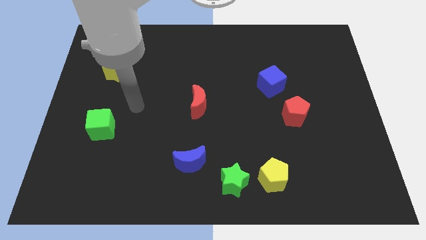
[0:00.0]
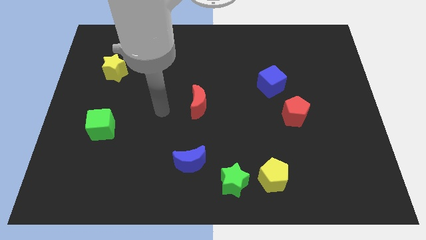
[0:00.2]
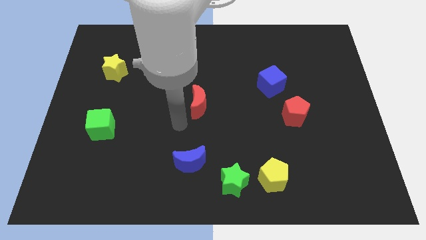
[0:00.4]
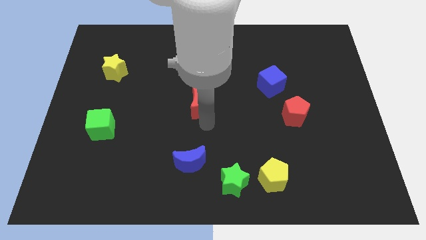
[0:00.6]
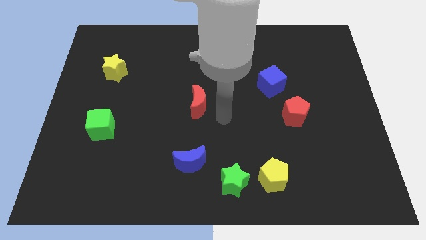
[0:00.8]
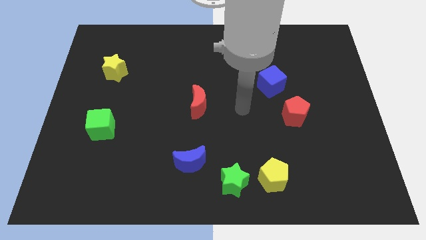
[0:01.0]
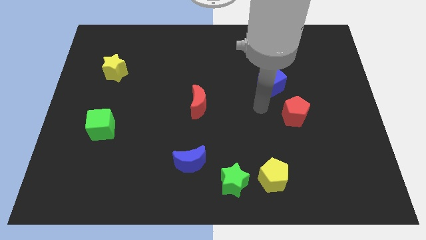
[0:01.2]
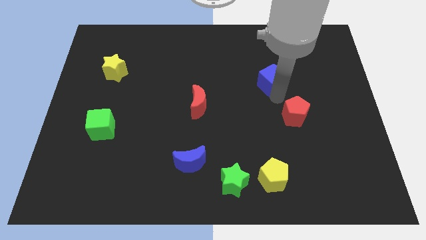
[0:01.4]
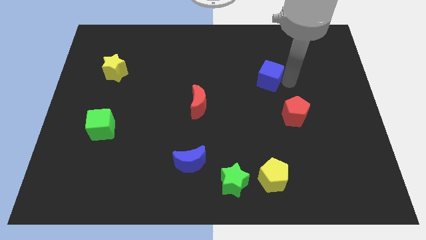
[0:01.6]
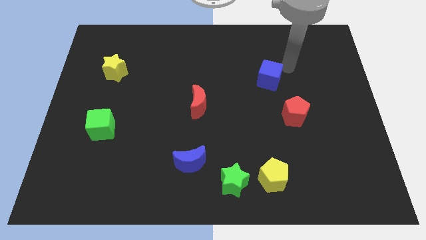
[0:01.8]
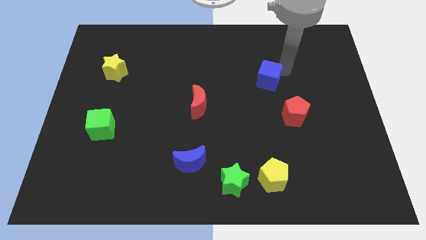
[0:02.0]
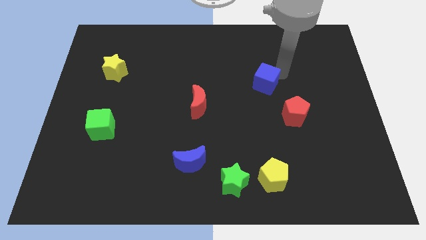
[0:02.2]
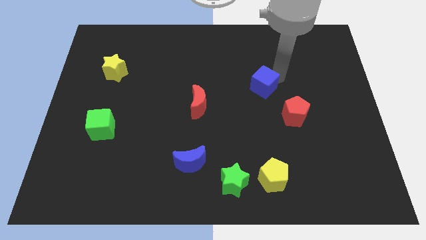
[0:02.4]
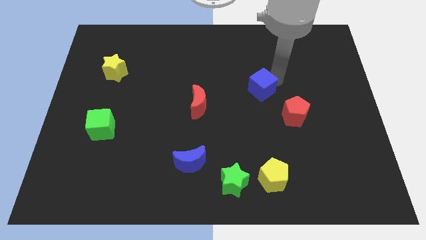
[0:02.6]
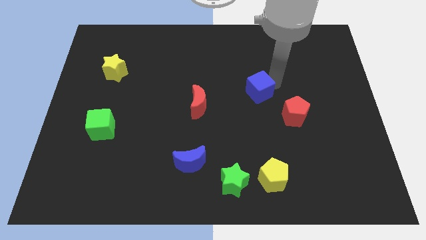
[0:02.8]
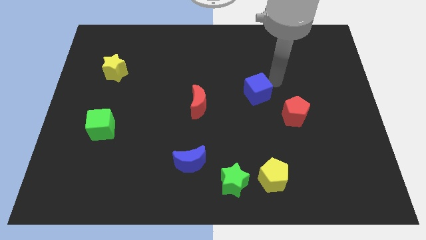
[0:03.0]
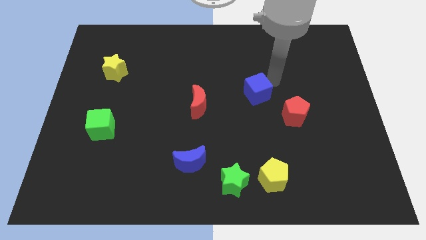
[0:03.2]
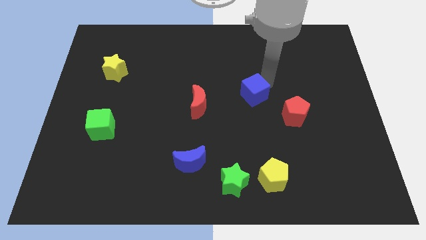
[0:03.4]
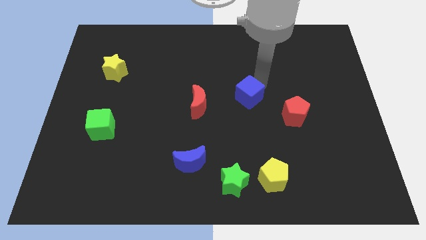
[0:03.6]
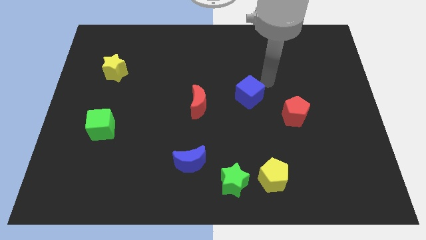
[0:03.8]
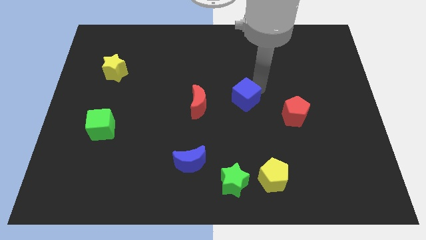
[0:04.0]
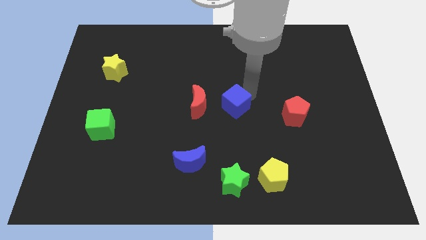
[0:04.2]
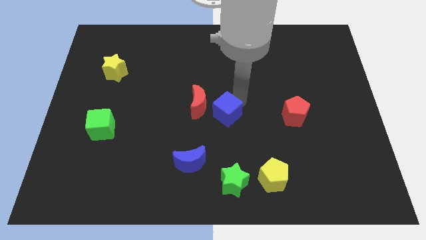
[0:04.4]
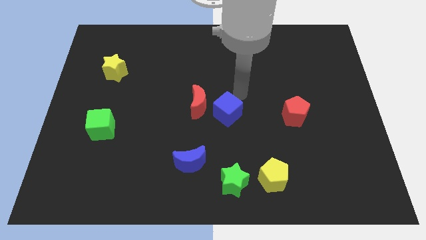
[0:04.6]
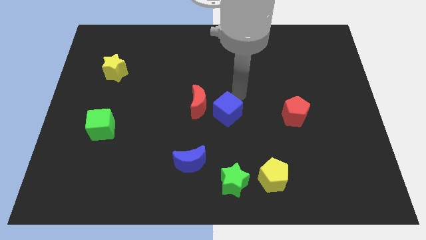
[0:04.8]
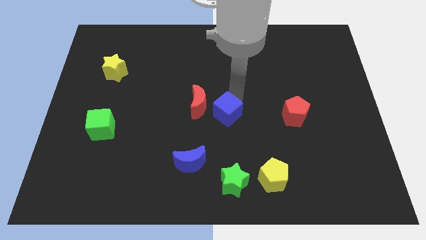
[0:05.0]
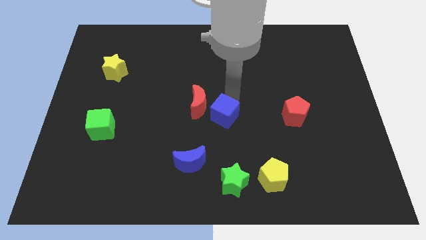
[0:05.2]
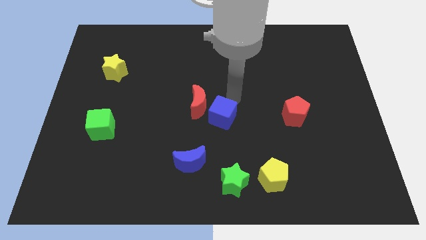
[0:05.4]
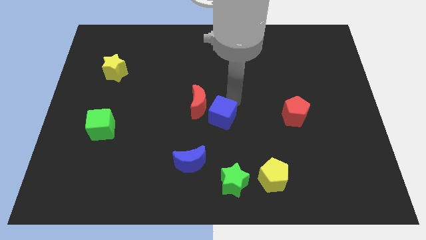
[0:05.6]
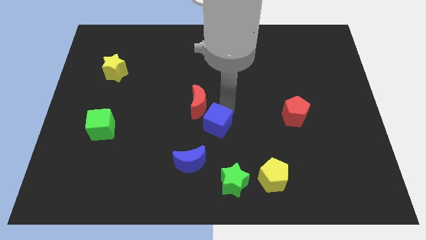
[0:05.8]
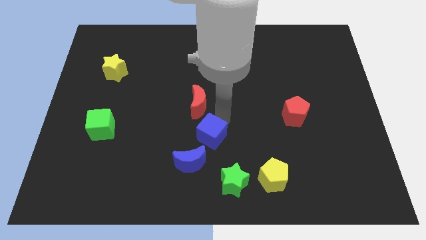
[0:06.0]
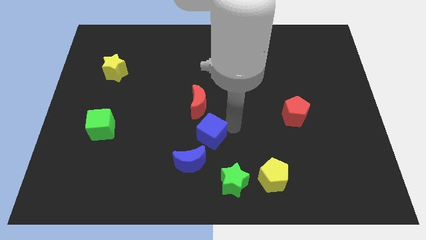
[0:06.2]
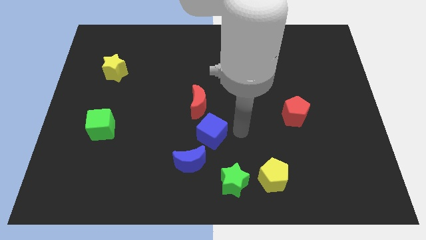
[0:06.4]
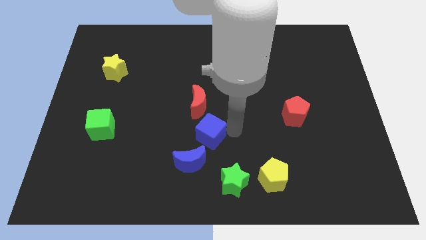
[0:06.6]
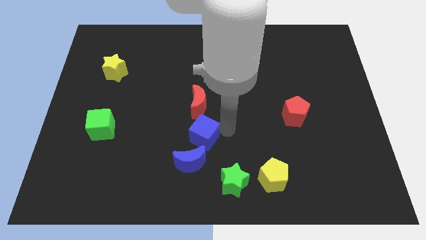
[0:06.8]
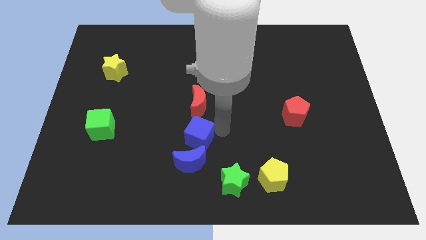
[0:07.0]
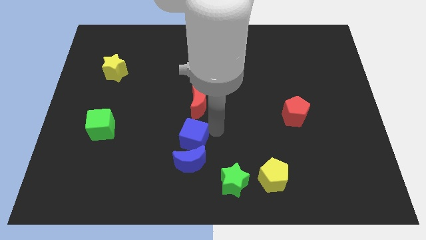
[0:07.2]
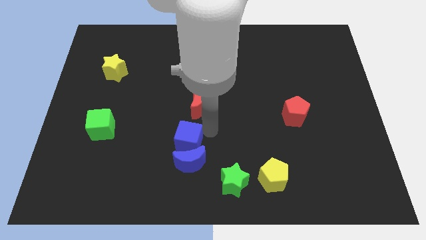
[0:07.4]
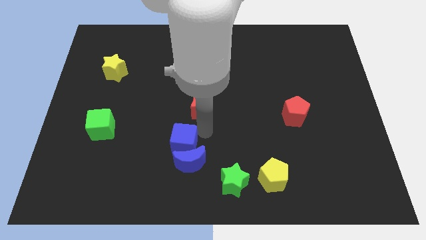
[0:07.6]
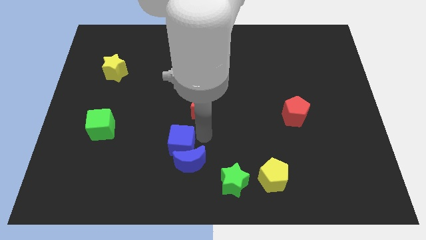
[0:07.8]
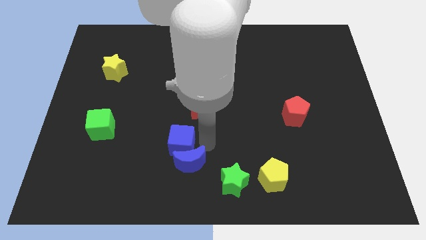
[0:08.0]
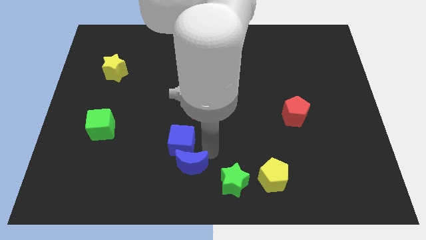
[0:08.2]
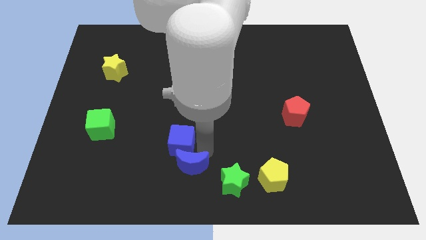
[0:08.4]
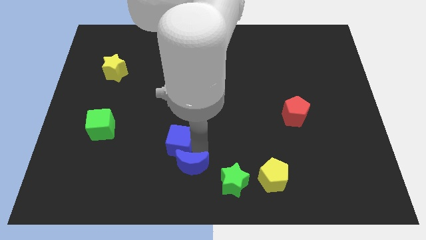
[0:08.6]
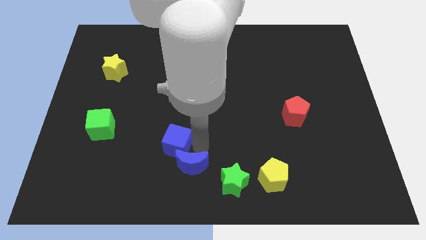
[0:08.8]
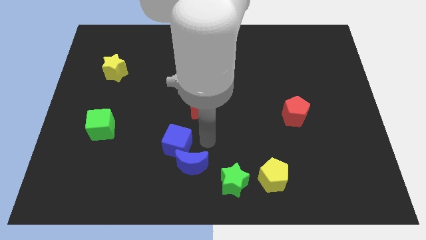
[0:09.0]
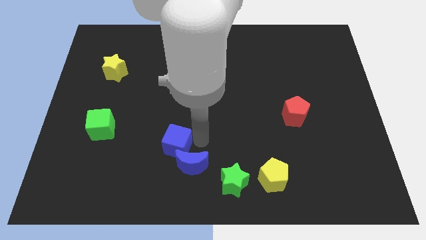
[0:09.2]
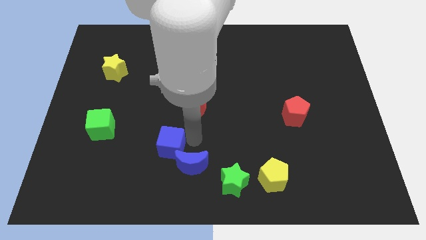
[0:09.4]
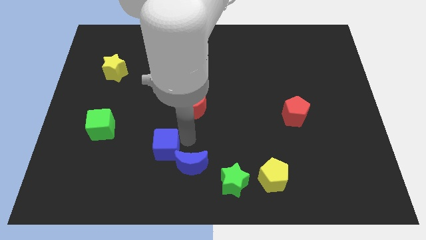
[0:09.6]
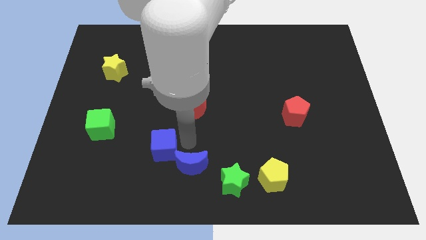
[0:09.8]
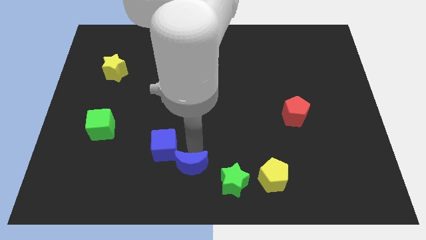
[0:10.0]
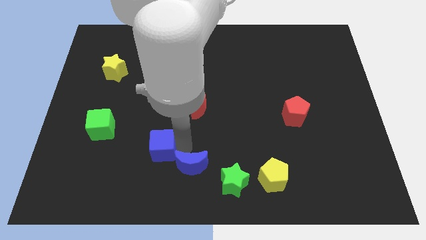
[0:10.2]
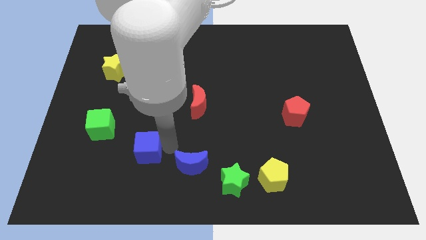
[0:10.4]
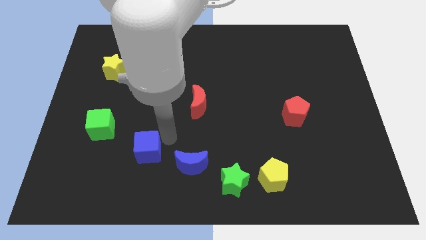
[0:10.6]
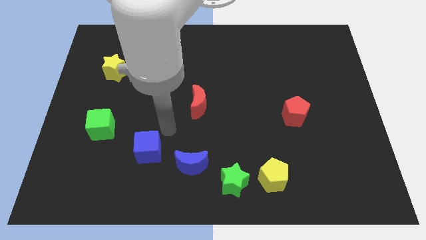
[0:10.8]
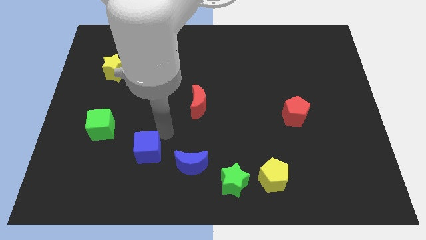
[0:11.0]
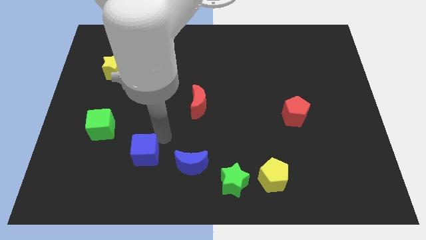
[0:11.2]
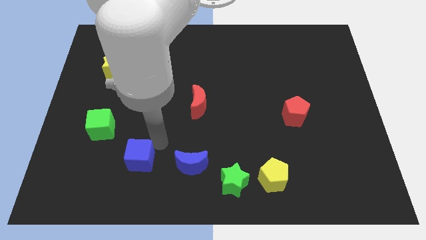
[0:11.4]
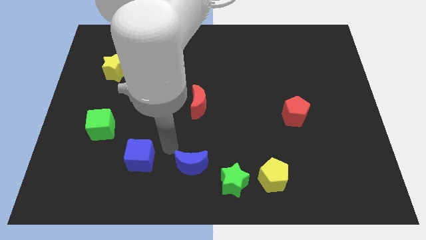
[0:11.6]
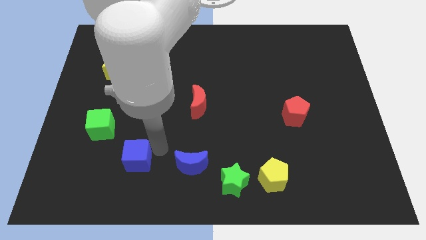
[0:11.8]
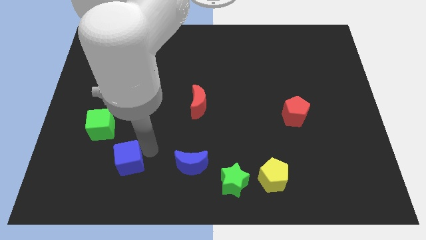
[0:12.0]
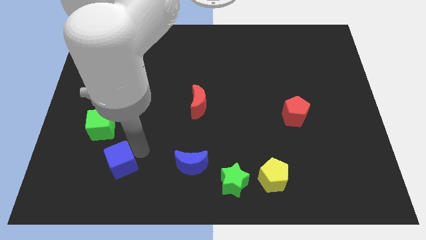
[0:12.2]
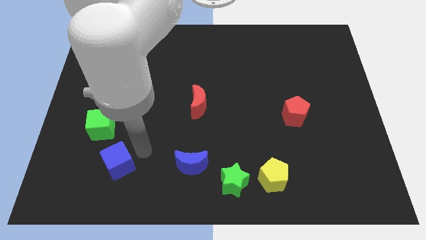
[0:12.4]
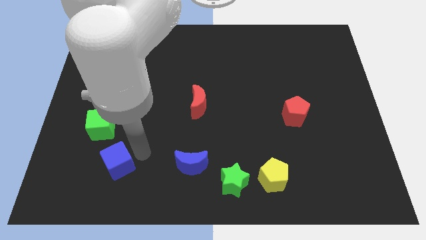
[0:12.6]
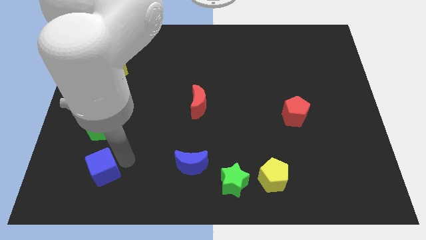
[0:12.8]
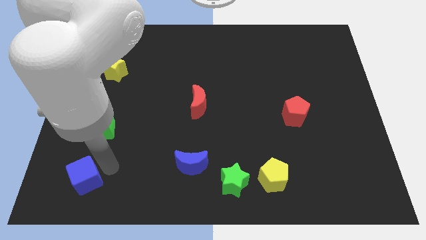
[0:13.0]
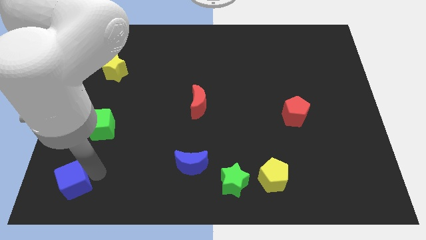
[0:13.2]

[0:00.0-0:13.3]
put the blue cube to the bottom left corner
